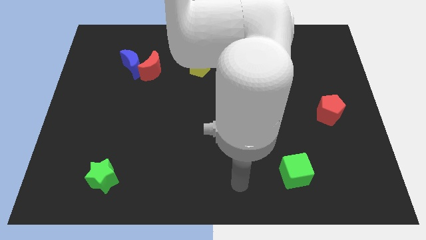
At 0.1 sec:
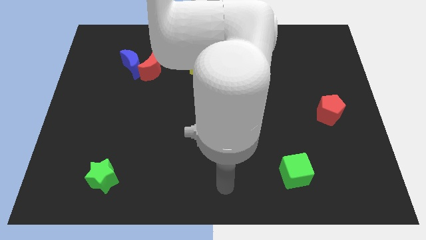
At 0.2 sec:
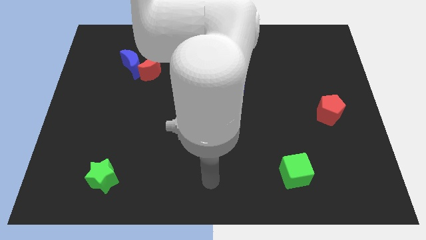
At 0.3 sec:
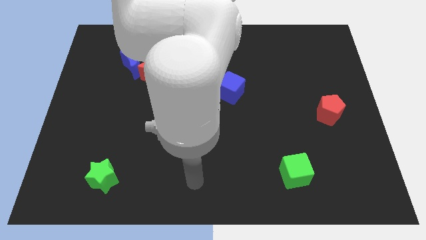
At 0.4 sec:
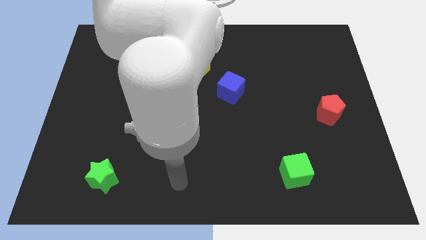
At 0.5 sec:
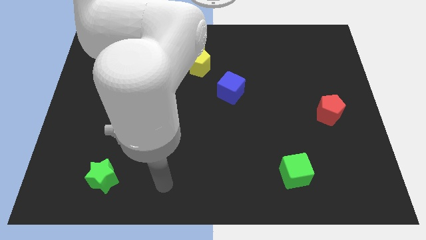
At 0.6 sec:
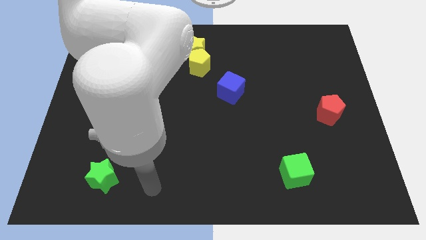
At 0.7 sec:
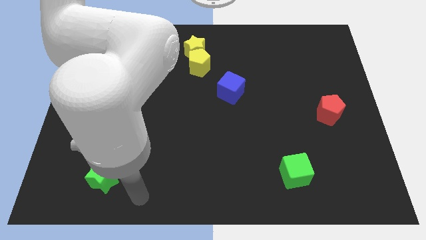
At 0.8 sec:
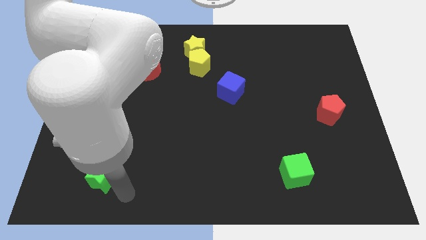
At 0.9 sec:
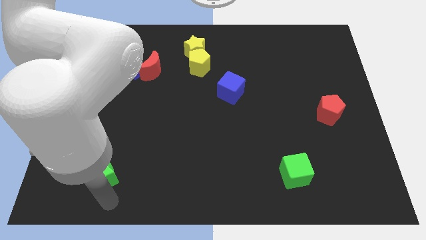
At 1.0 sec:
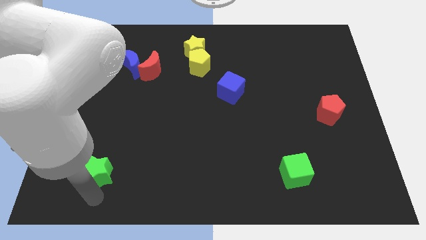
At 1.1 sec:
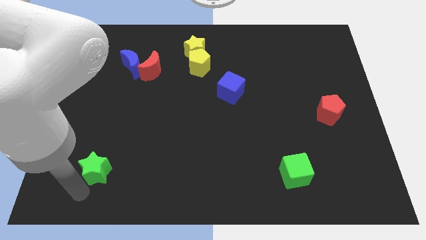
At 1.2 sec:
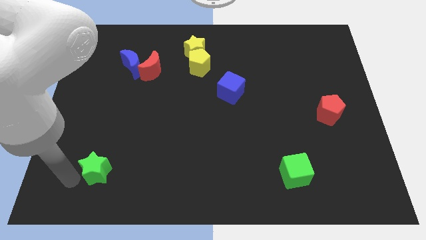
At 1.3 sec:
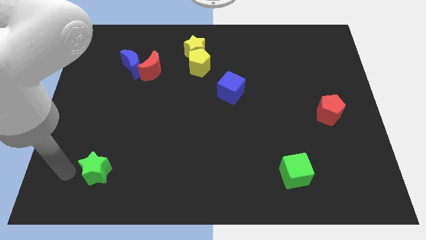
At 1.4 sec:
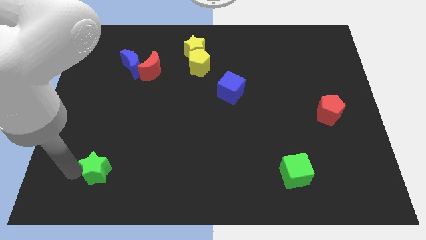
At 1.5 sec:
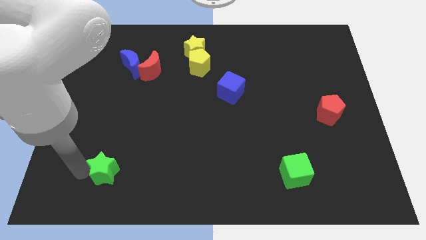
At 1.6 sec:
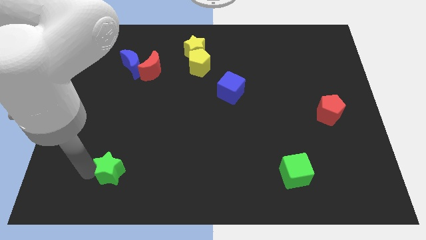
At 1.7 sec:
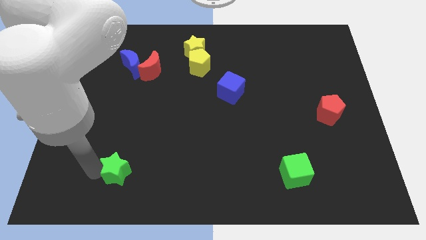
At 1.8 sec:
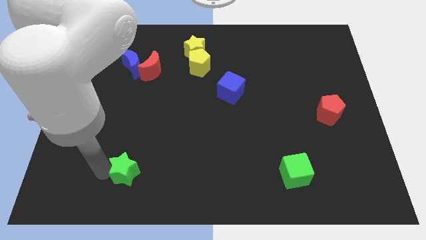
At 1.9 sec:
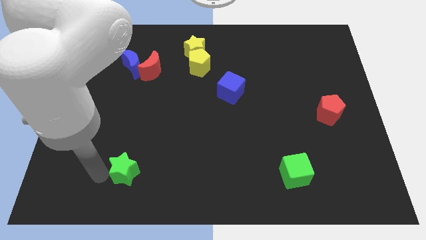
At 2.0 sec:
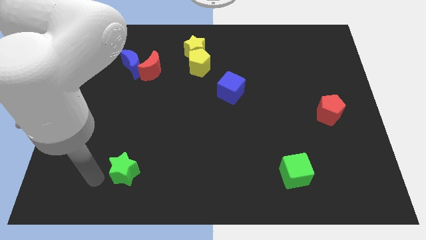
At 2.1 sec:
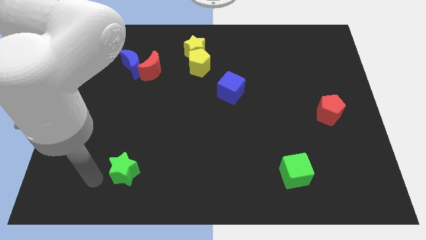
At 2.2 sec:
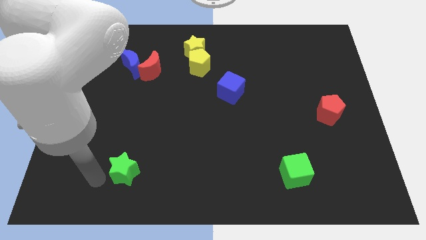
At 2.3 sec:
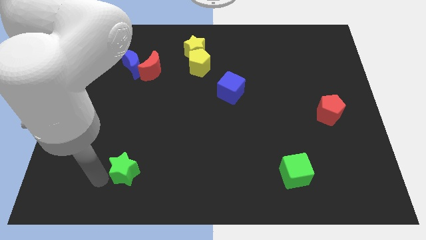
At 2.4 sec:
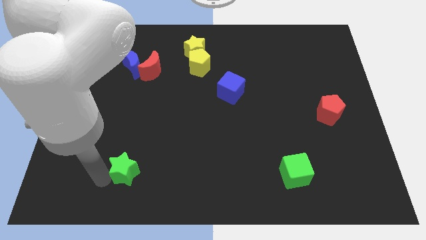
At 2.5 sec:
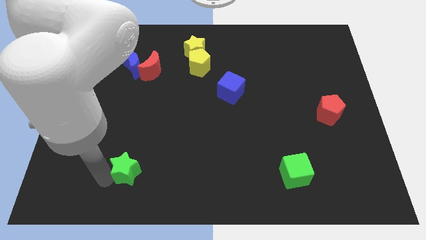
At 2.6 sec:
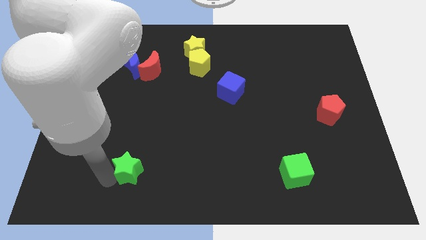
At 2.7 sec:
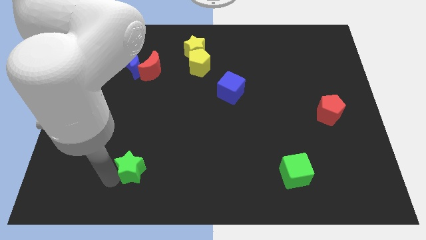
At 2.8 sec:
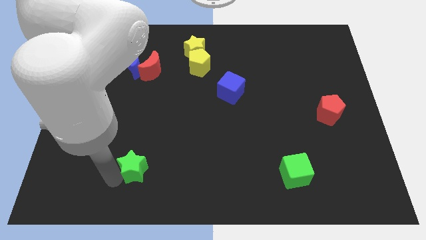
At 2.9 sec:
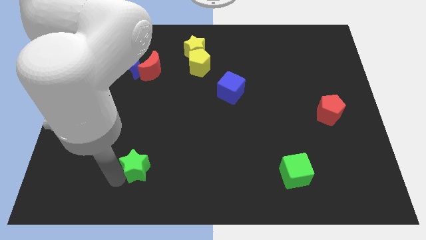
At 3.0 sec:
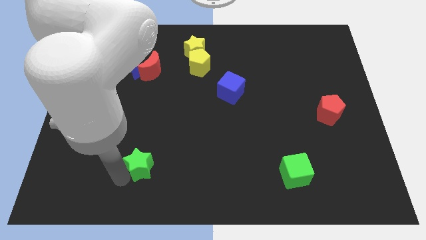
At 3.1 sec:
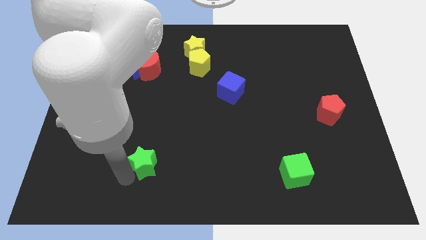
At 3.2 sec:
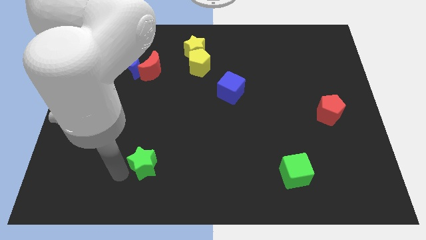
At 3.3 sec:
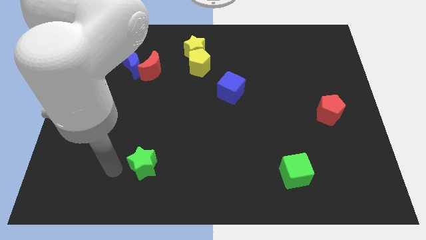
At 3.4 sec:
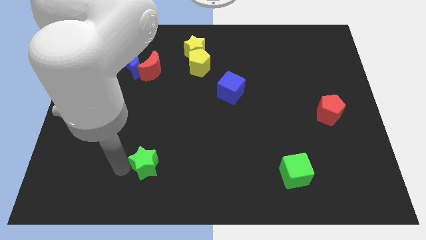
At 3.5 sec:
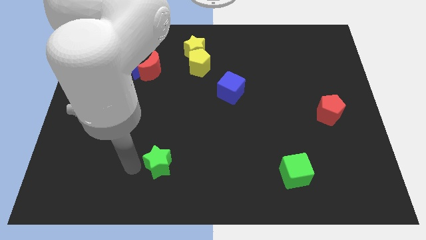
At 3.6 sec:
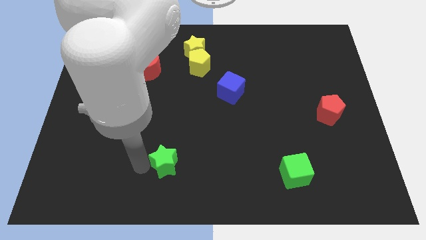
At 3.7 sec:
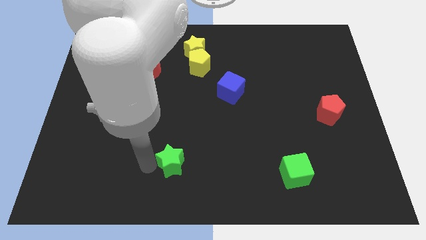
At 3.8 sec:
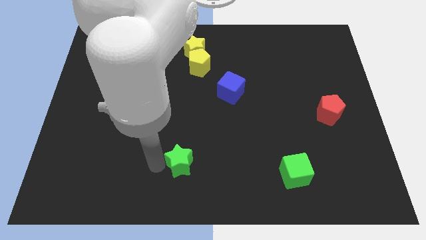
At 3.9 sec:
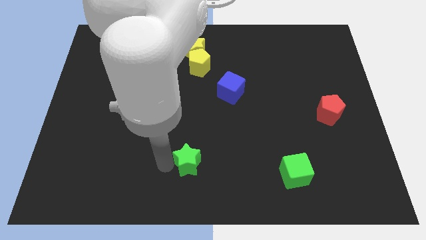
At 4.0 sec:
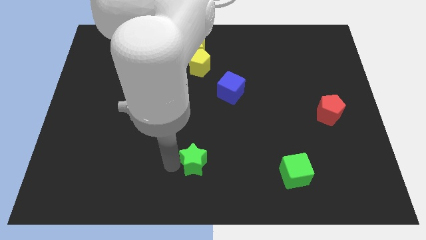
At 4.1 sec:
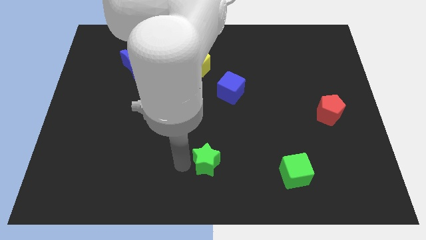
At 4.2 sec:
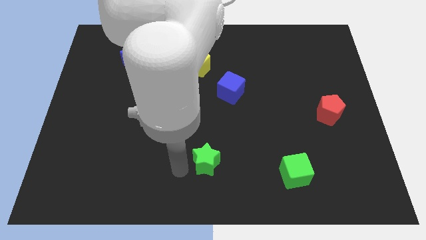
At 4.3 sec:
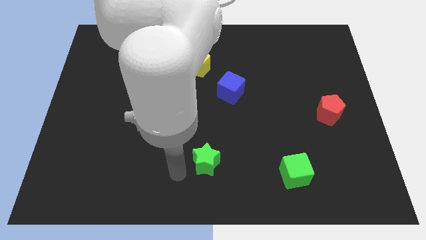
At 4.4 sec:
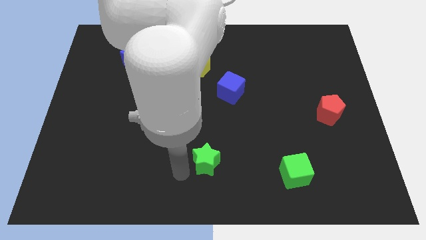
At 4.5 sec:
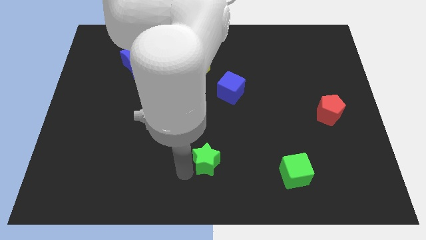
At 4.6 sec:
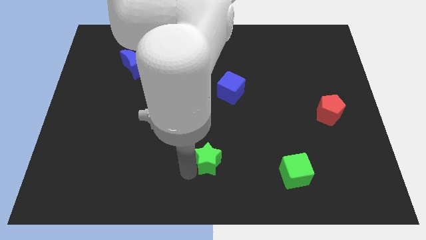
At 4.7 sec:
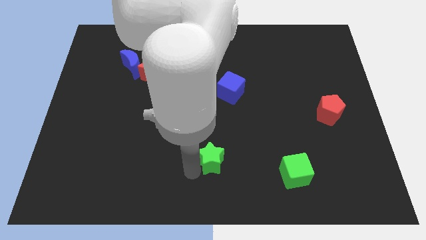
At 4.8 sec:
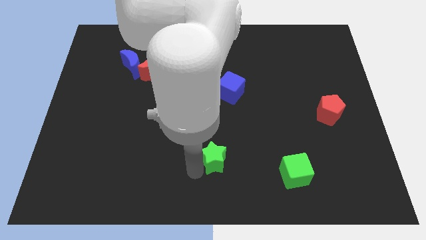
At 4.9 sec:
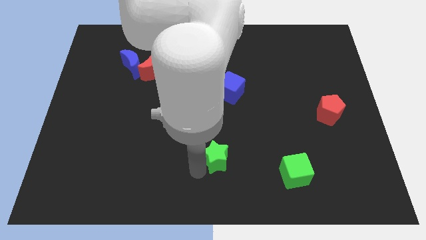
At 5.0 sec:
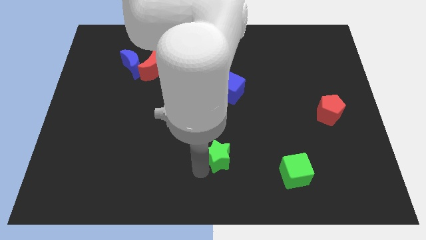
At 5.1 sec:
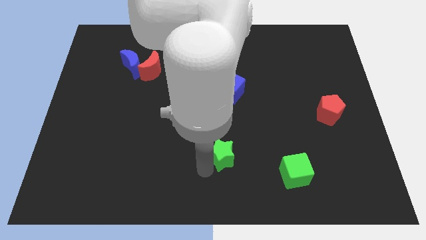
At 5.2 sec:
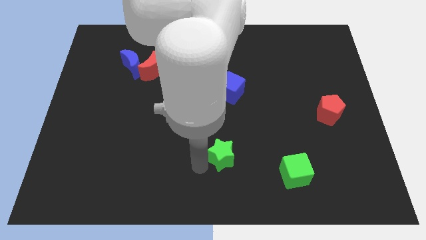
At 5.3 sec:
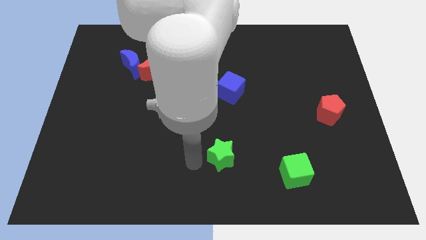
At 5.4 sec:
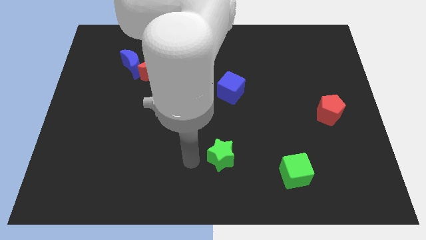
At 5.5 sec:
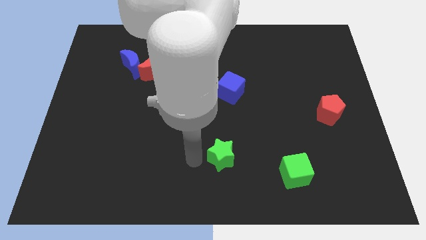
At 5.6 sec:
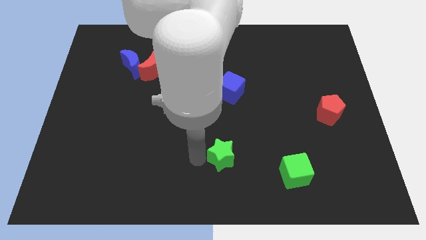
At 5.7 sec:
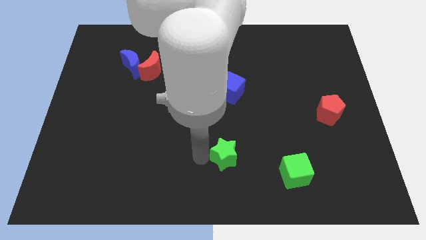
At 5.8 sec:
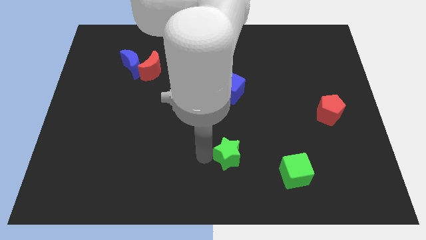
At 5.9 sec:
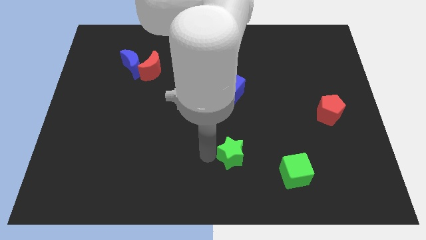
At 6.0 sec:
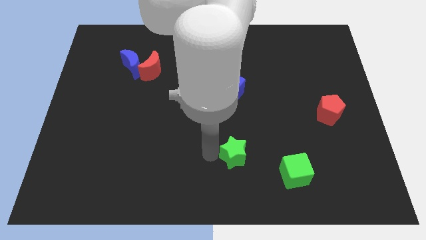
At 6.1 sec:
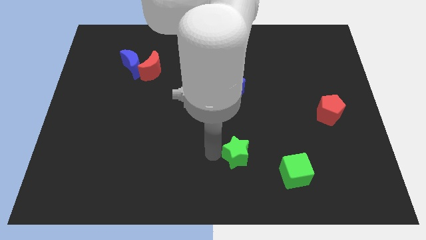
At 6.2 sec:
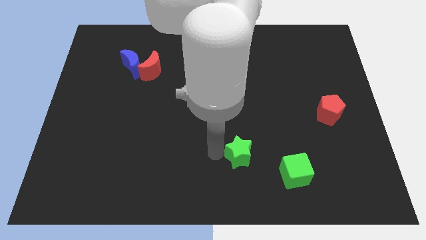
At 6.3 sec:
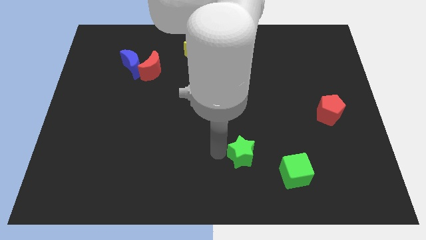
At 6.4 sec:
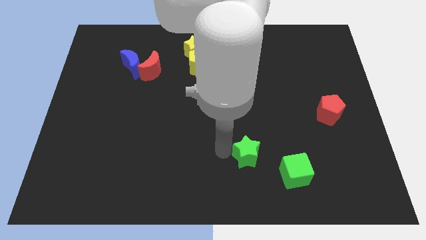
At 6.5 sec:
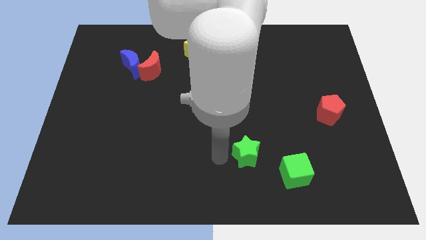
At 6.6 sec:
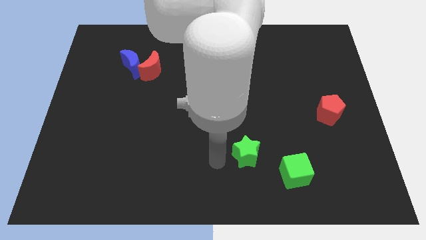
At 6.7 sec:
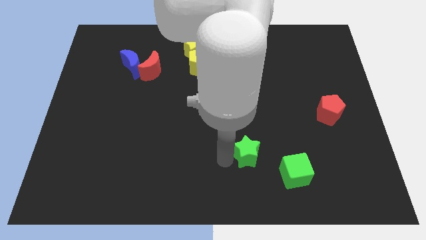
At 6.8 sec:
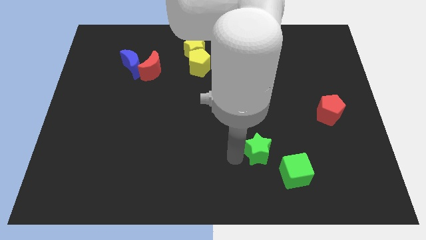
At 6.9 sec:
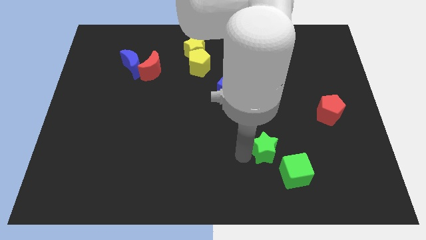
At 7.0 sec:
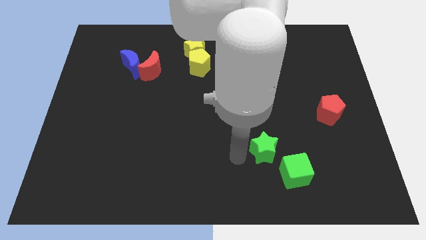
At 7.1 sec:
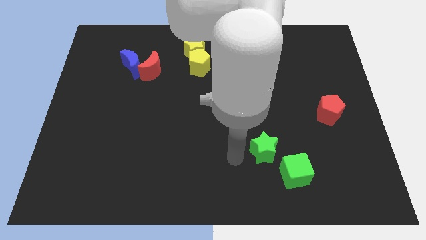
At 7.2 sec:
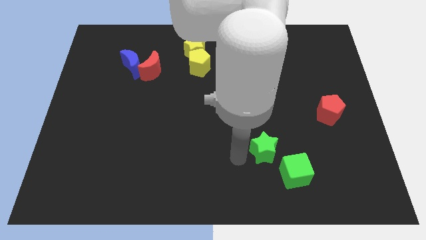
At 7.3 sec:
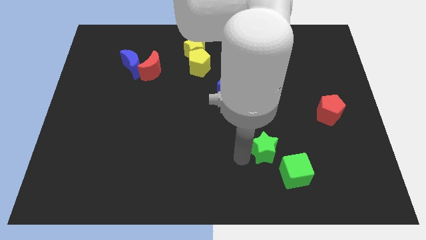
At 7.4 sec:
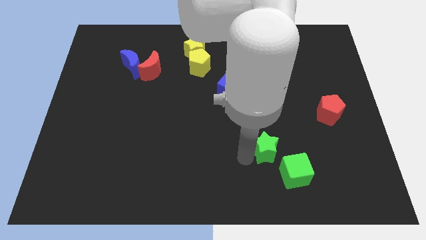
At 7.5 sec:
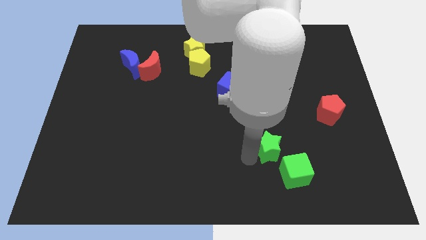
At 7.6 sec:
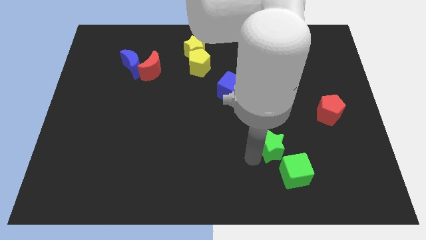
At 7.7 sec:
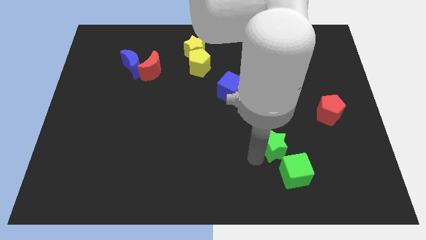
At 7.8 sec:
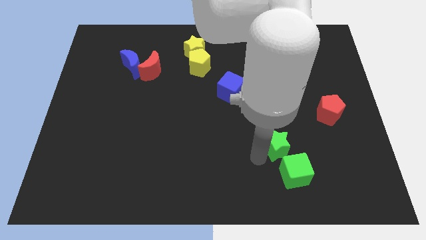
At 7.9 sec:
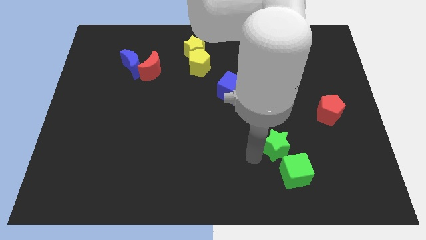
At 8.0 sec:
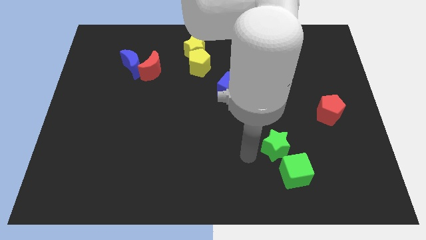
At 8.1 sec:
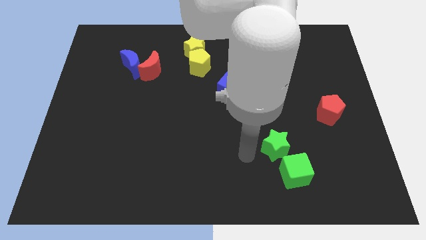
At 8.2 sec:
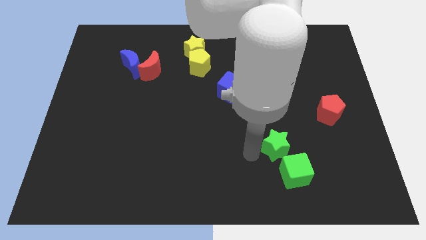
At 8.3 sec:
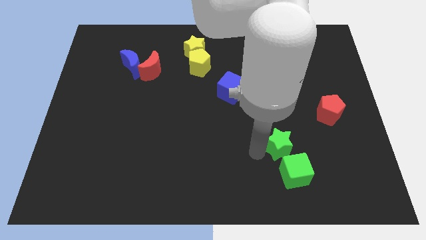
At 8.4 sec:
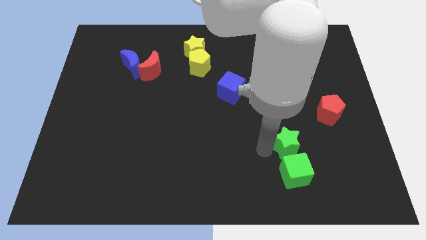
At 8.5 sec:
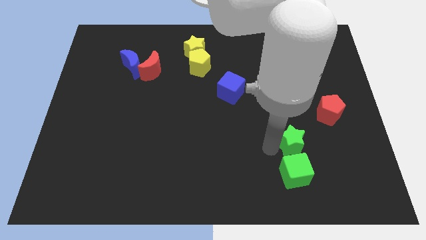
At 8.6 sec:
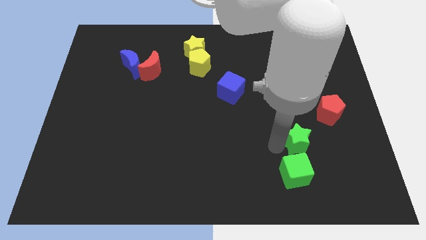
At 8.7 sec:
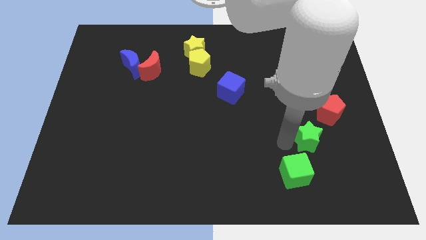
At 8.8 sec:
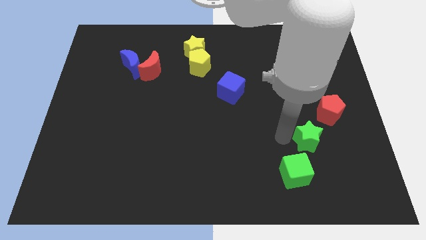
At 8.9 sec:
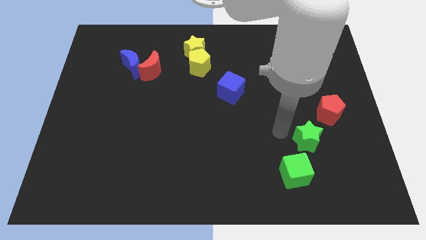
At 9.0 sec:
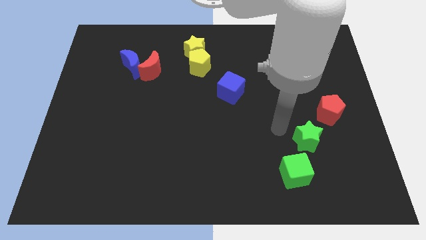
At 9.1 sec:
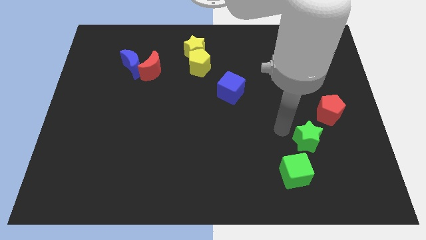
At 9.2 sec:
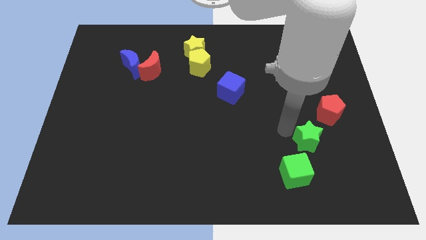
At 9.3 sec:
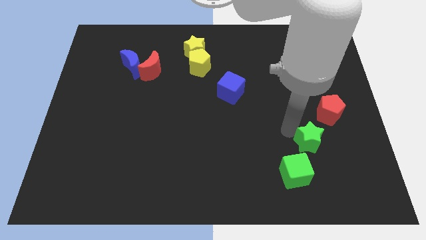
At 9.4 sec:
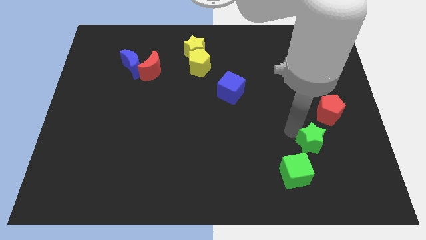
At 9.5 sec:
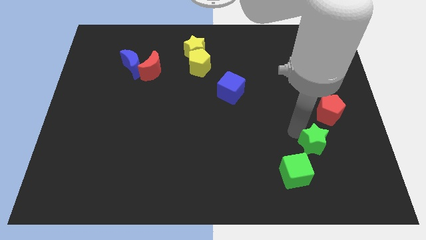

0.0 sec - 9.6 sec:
put the green star below the red pentagon
